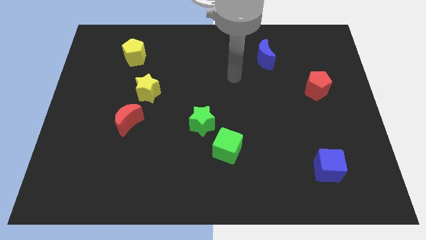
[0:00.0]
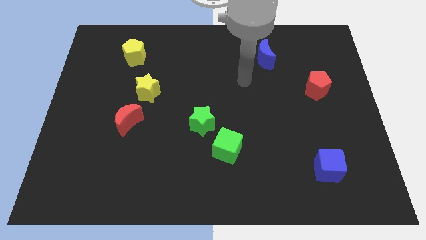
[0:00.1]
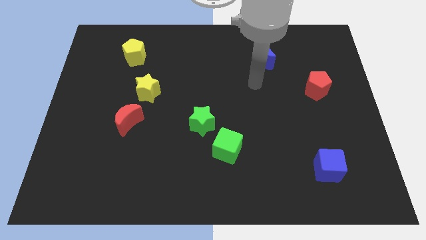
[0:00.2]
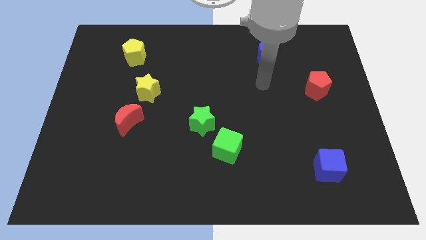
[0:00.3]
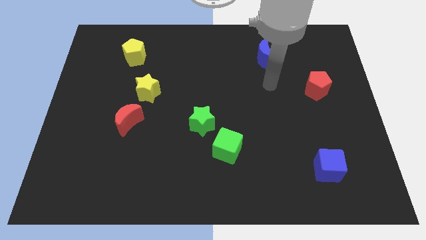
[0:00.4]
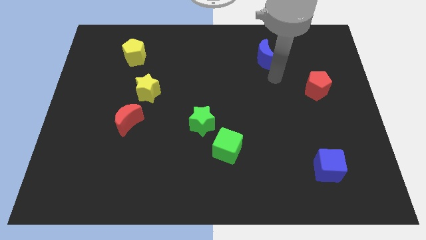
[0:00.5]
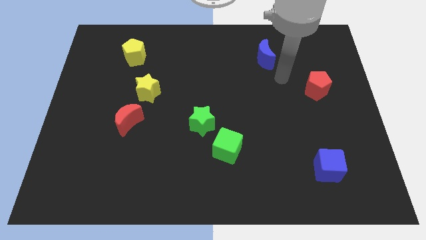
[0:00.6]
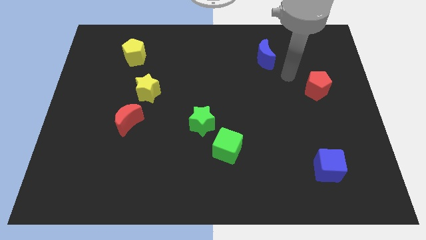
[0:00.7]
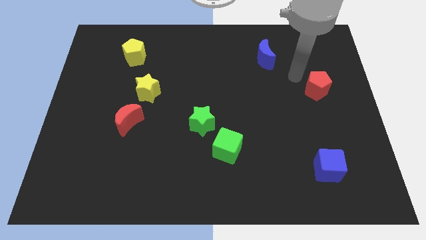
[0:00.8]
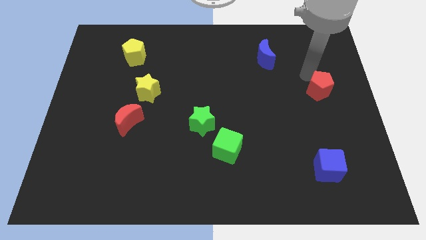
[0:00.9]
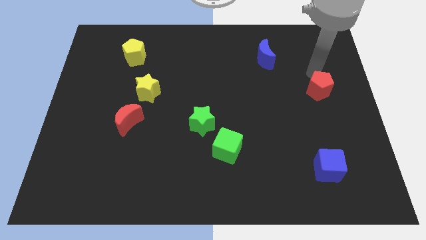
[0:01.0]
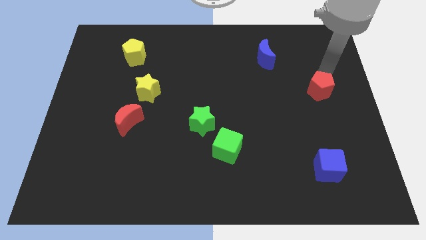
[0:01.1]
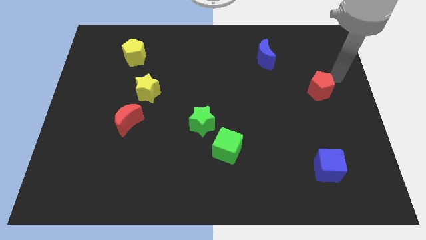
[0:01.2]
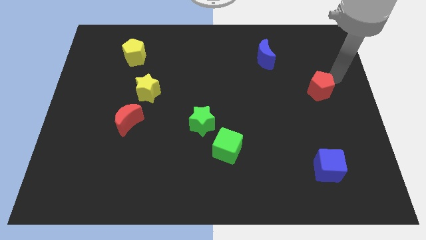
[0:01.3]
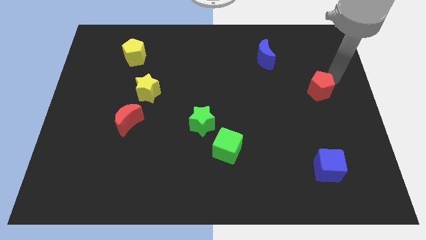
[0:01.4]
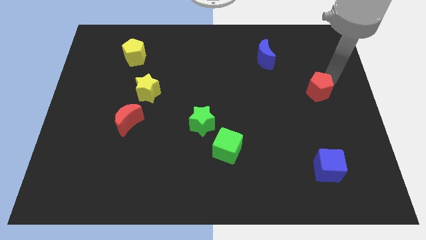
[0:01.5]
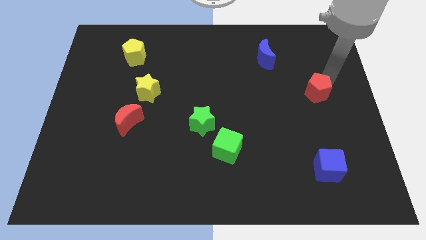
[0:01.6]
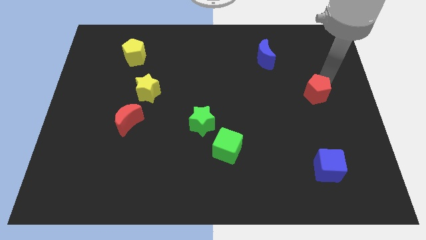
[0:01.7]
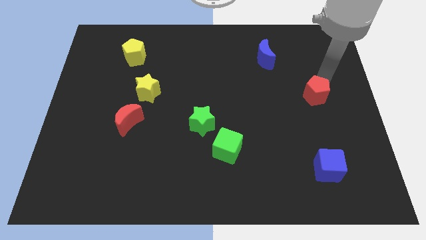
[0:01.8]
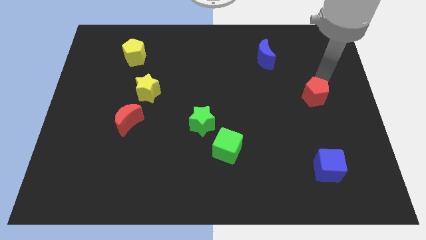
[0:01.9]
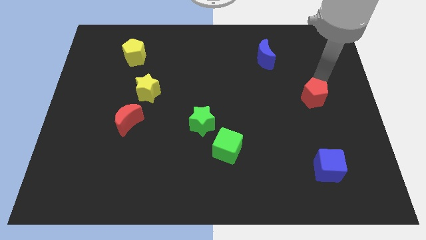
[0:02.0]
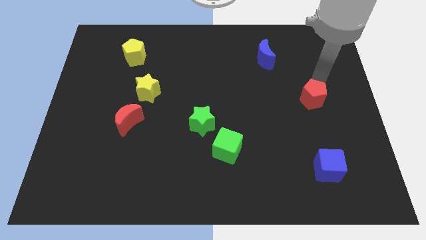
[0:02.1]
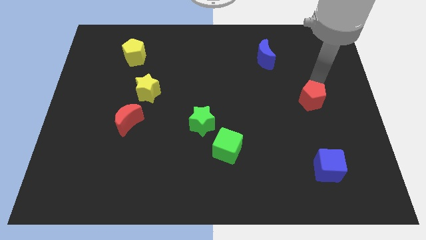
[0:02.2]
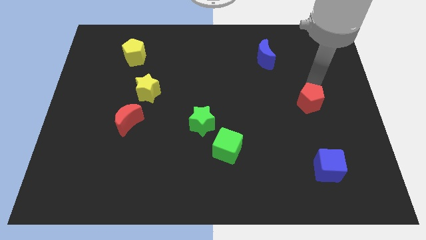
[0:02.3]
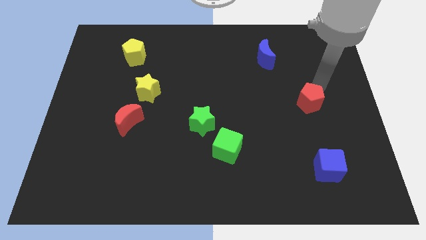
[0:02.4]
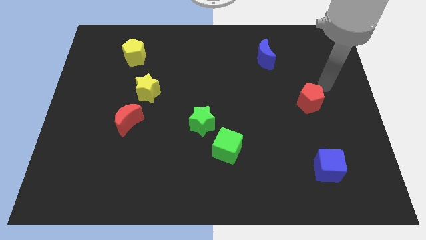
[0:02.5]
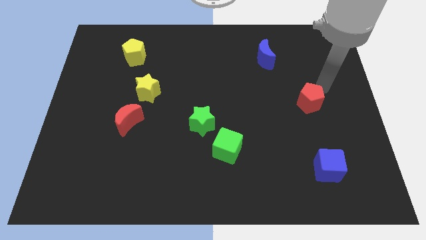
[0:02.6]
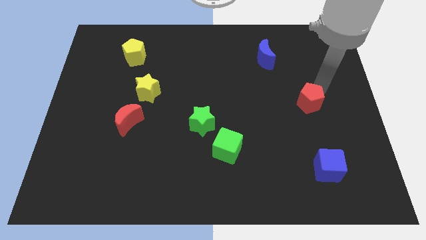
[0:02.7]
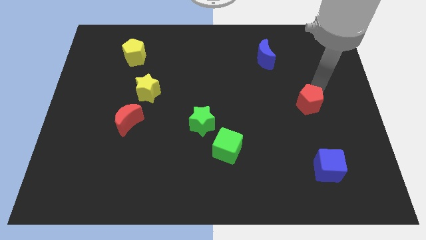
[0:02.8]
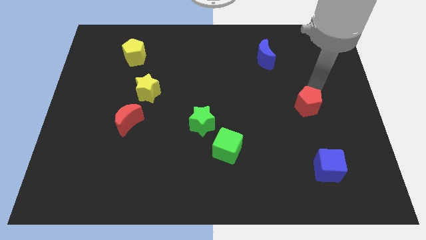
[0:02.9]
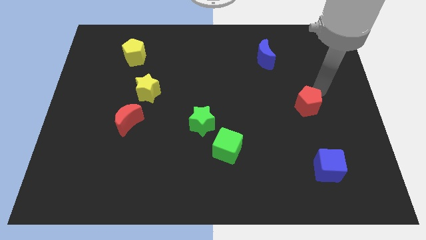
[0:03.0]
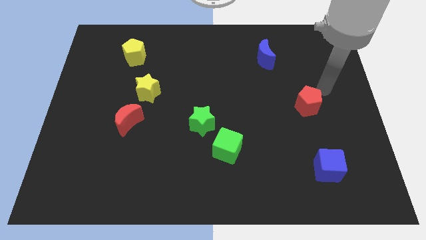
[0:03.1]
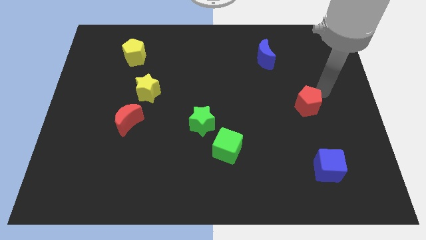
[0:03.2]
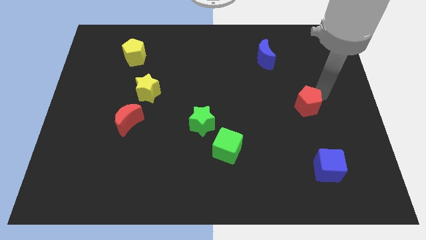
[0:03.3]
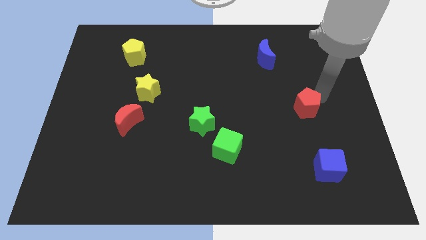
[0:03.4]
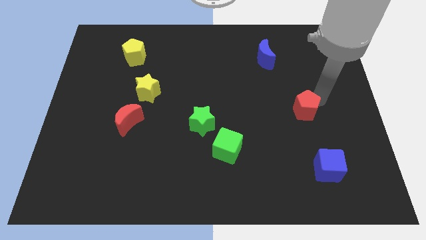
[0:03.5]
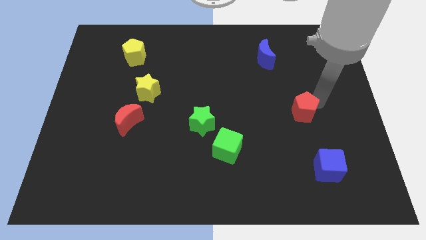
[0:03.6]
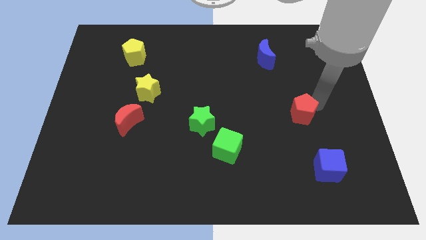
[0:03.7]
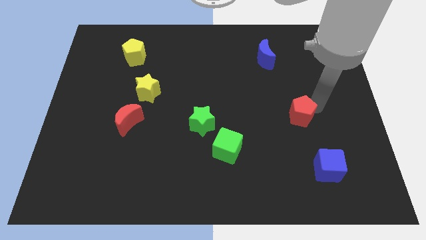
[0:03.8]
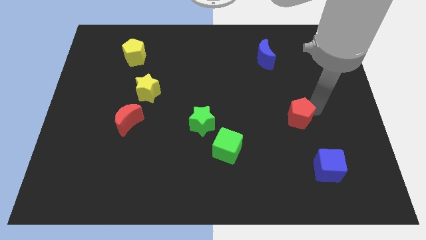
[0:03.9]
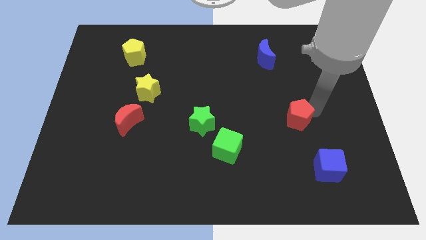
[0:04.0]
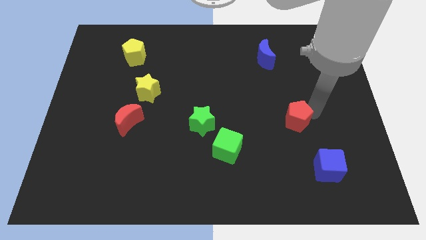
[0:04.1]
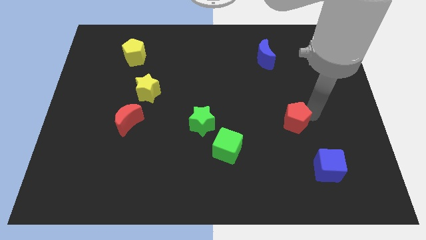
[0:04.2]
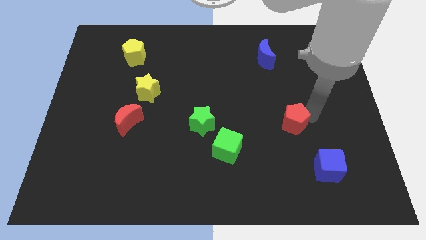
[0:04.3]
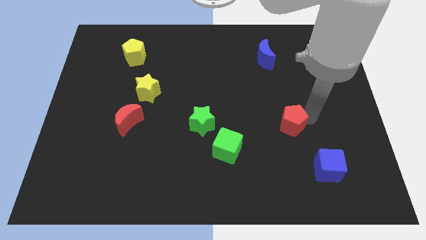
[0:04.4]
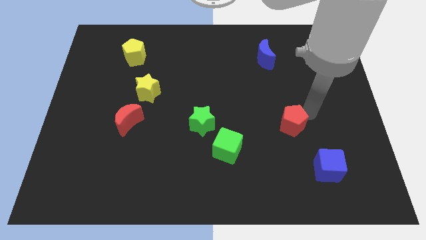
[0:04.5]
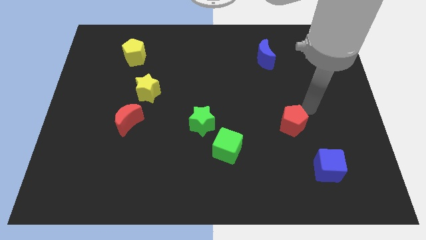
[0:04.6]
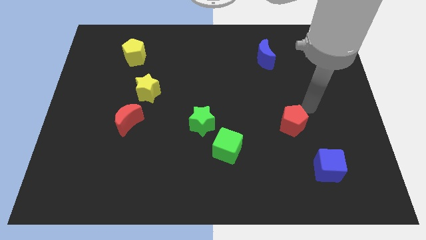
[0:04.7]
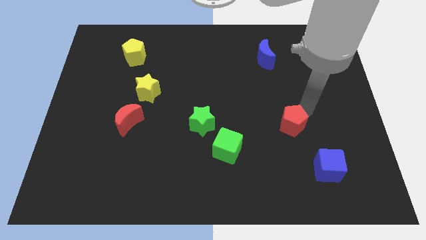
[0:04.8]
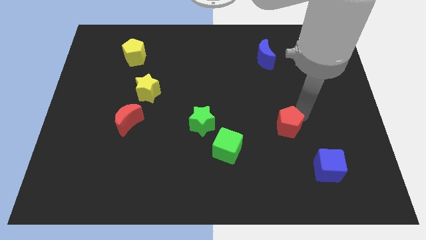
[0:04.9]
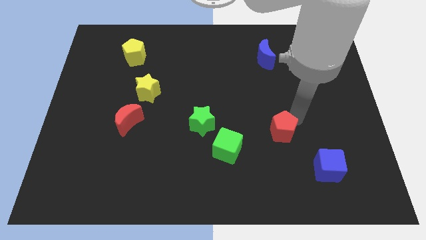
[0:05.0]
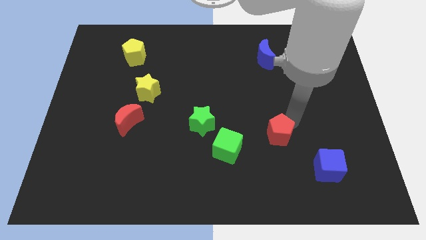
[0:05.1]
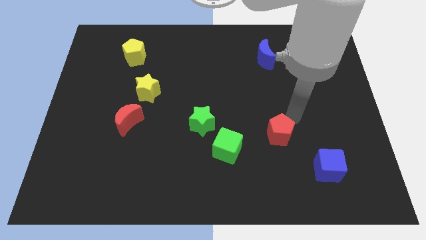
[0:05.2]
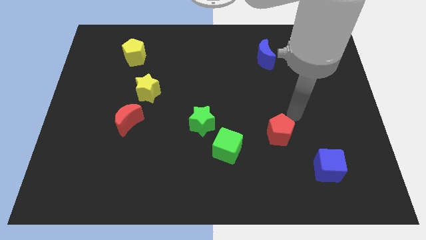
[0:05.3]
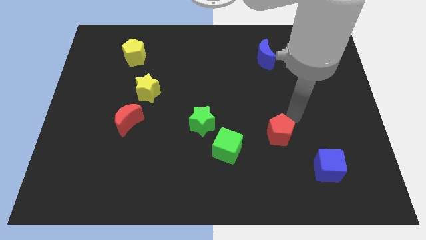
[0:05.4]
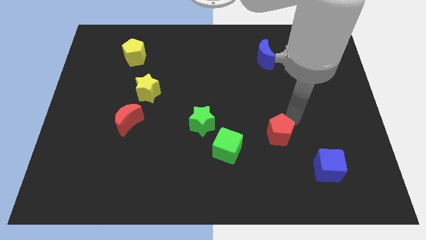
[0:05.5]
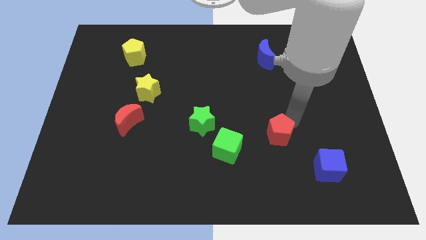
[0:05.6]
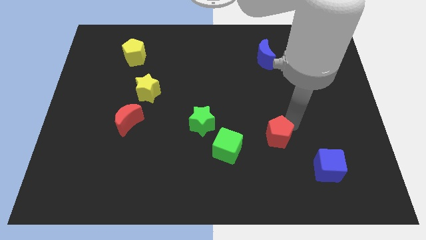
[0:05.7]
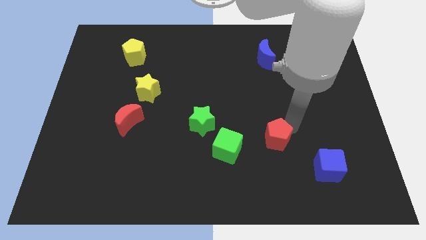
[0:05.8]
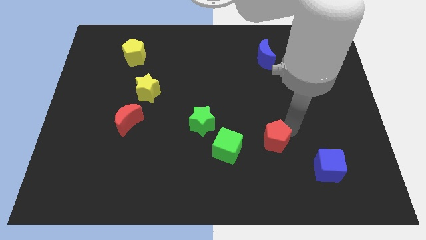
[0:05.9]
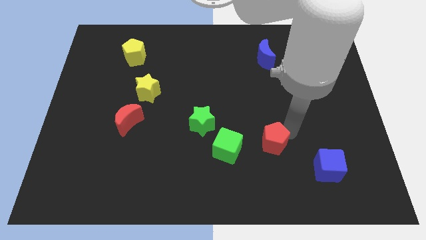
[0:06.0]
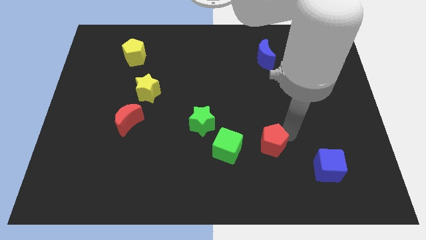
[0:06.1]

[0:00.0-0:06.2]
slide the red pentagon down and then to the left

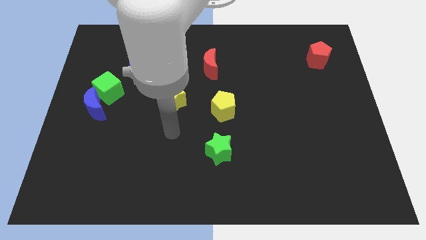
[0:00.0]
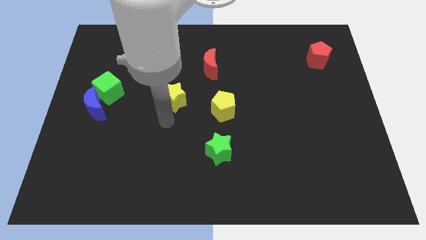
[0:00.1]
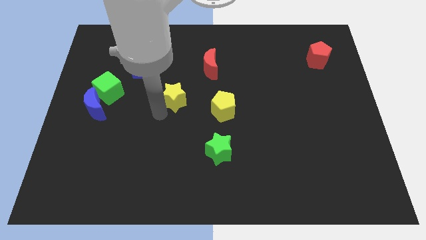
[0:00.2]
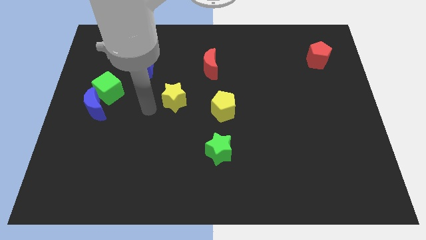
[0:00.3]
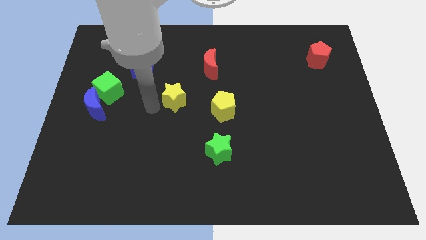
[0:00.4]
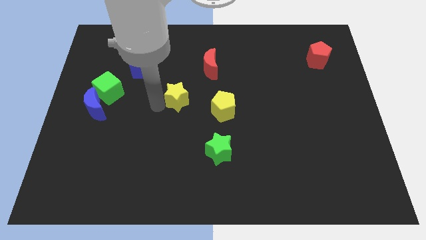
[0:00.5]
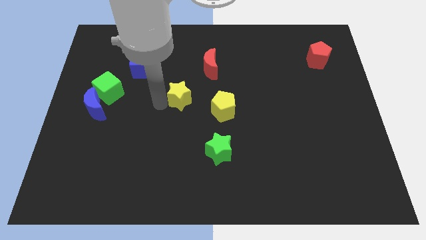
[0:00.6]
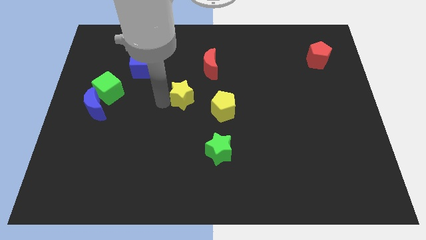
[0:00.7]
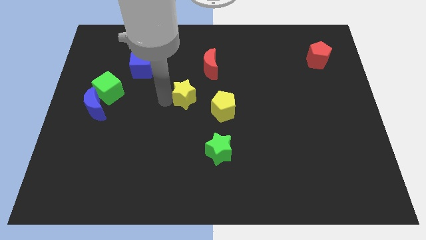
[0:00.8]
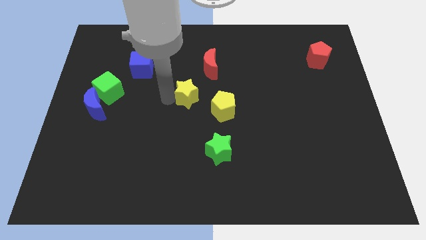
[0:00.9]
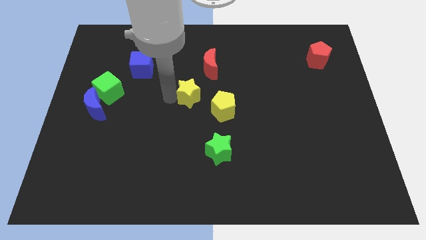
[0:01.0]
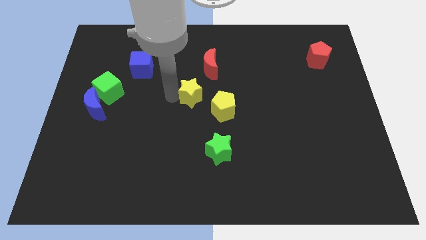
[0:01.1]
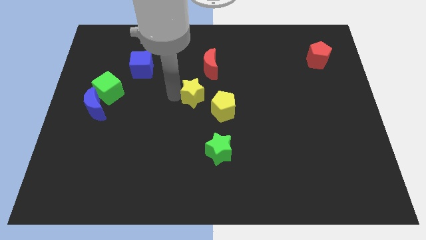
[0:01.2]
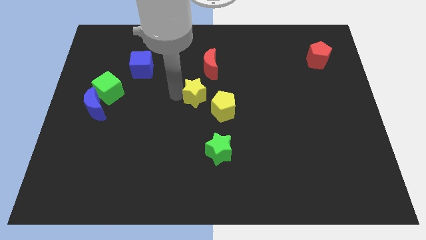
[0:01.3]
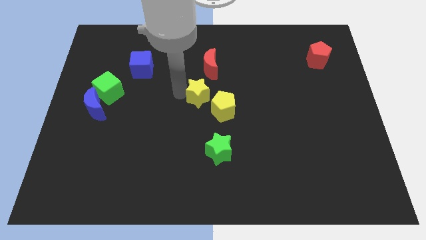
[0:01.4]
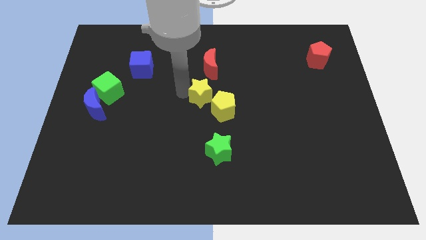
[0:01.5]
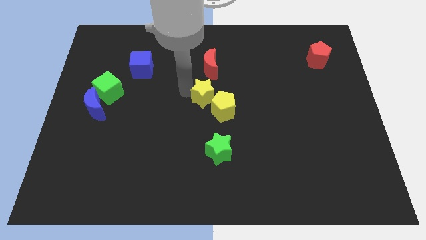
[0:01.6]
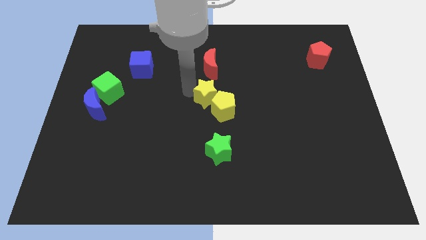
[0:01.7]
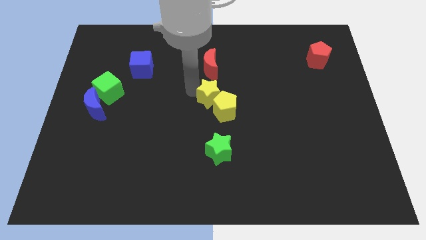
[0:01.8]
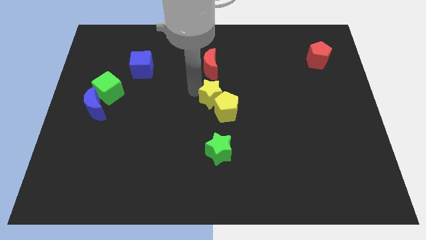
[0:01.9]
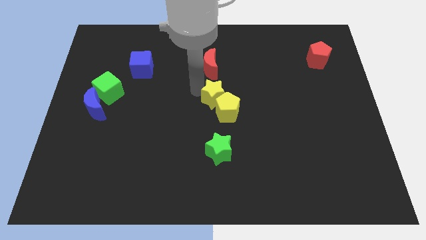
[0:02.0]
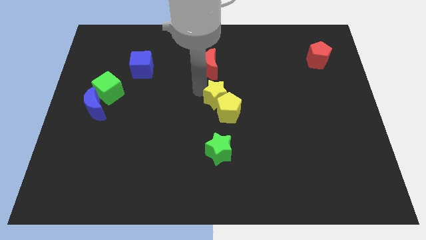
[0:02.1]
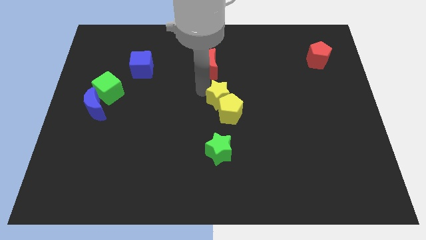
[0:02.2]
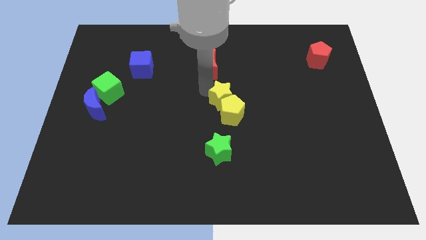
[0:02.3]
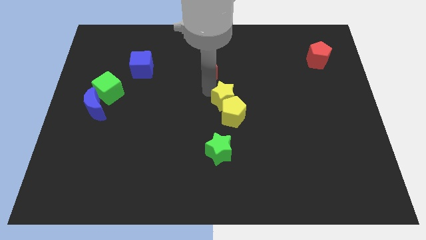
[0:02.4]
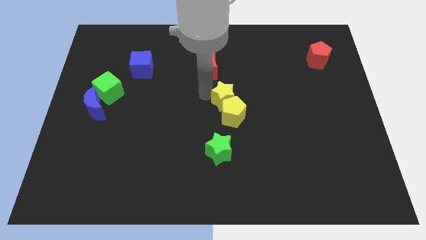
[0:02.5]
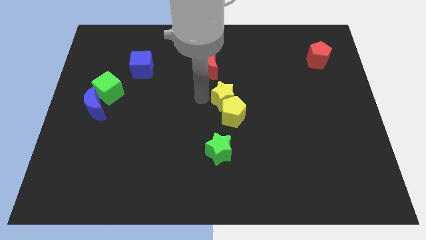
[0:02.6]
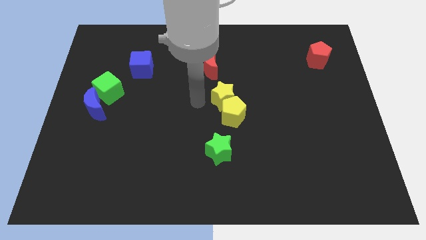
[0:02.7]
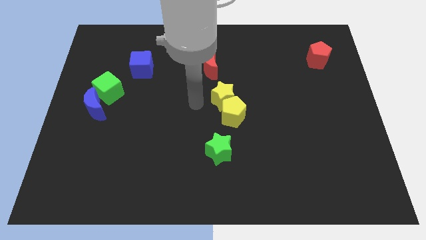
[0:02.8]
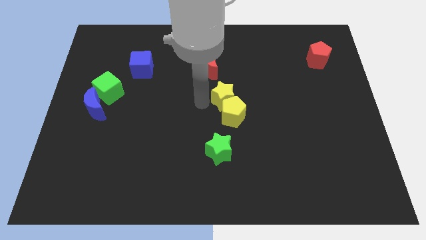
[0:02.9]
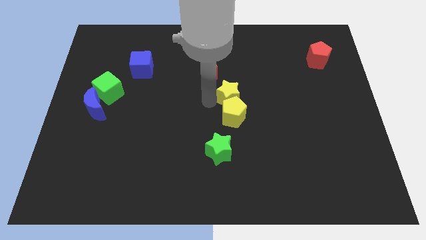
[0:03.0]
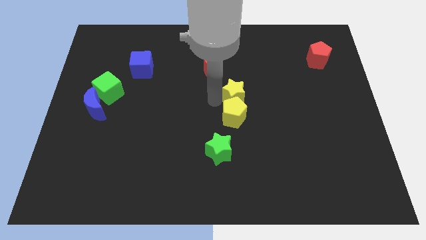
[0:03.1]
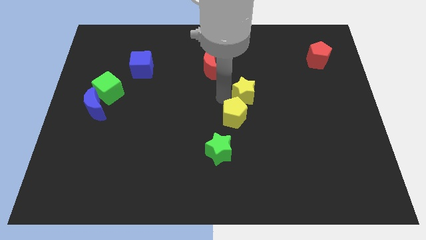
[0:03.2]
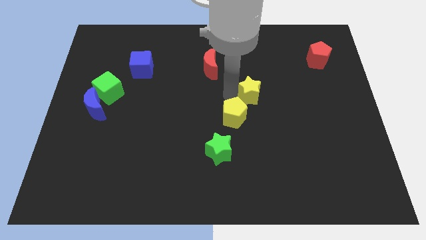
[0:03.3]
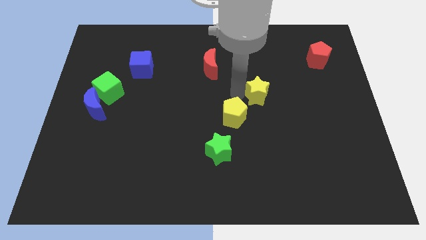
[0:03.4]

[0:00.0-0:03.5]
push the yellow star right
